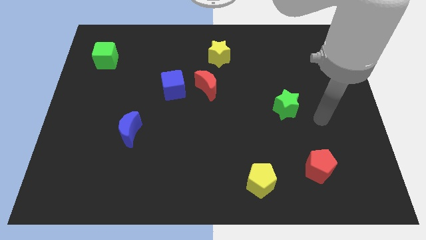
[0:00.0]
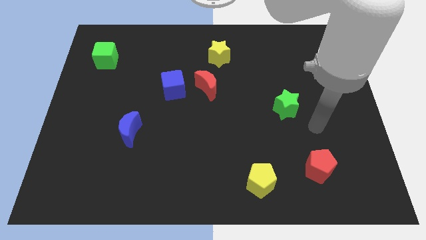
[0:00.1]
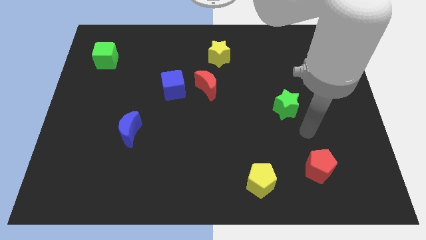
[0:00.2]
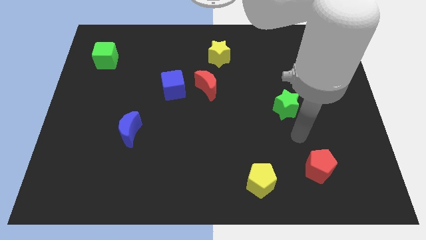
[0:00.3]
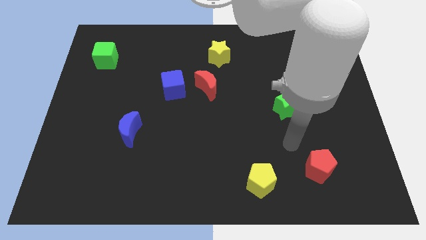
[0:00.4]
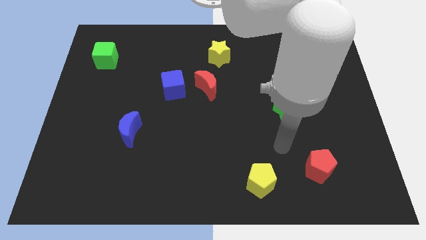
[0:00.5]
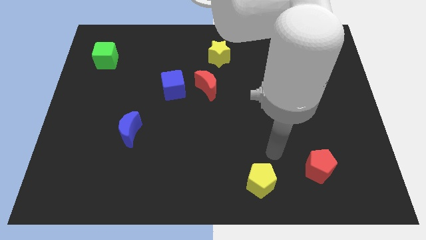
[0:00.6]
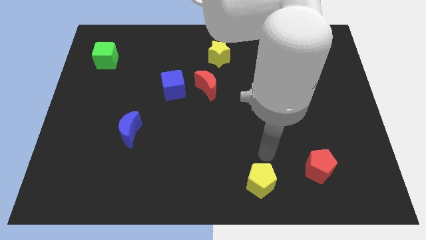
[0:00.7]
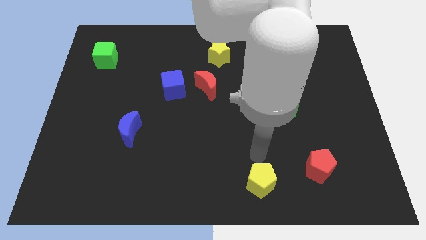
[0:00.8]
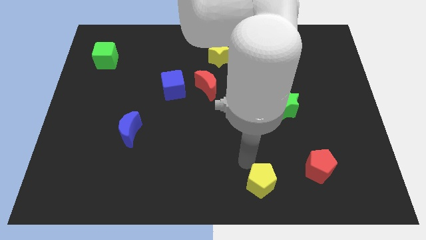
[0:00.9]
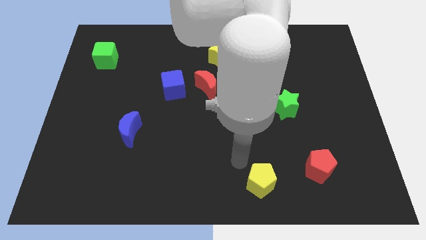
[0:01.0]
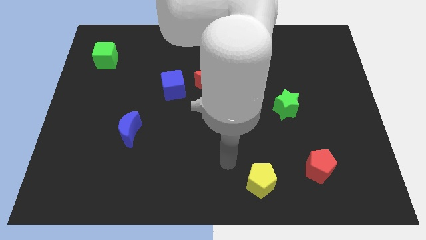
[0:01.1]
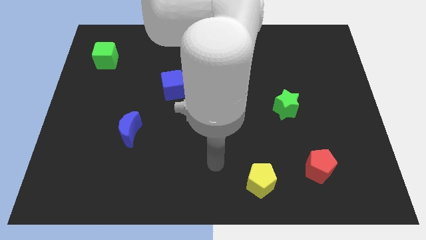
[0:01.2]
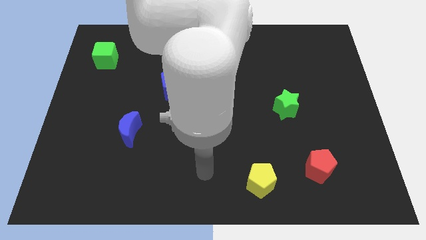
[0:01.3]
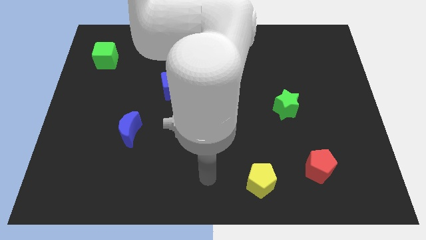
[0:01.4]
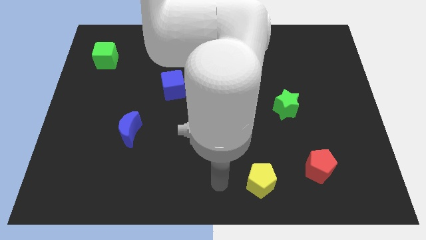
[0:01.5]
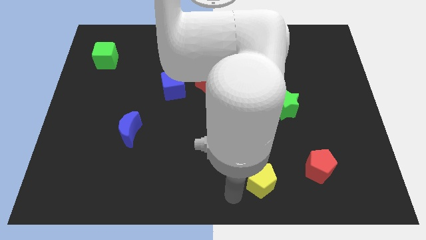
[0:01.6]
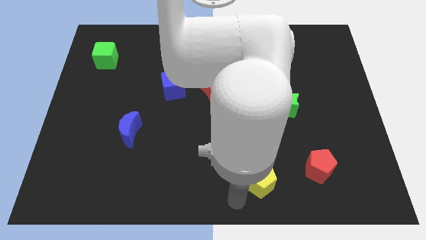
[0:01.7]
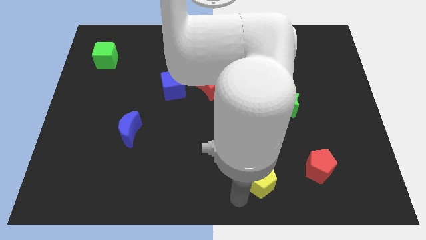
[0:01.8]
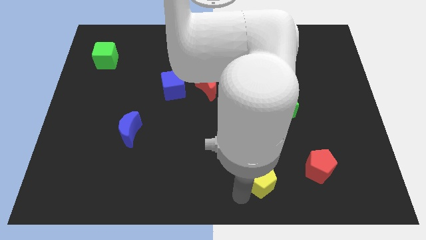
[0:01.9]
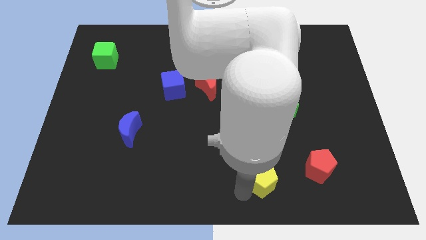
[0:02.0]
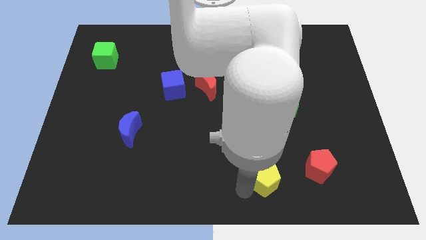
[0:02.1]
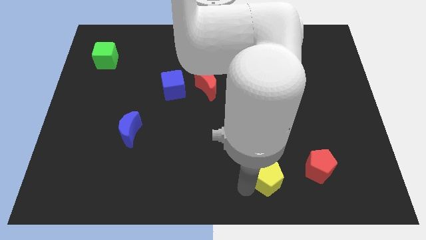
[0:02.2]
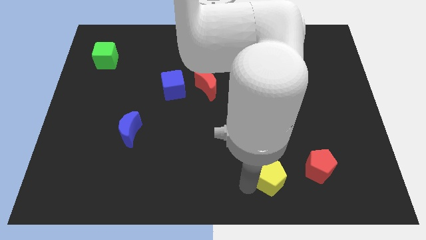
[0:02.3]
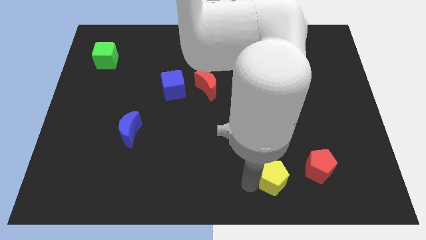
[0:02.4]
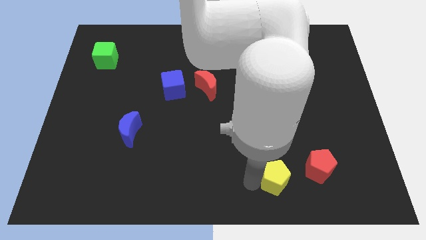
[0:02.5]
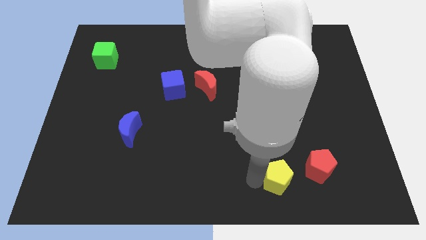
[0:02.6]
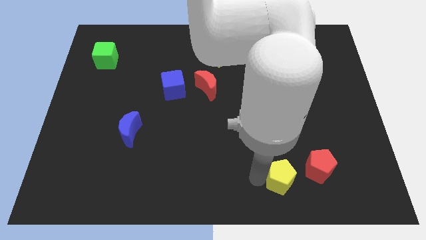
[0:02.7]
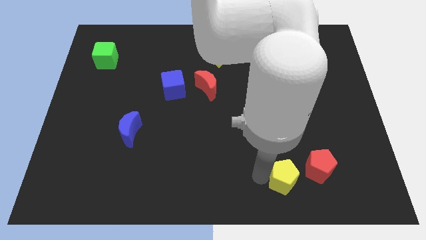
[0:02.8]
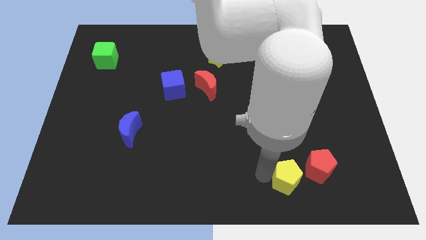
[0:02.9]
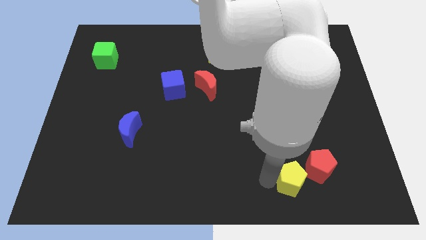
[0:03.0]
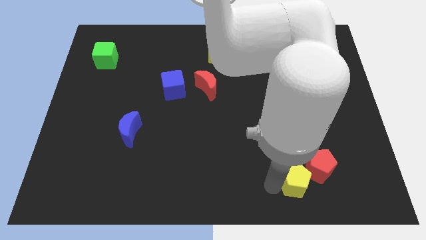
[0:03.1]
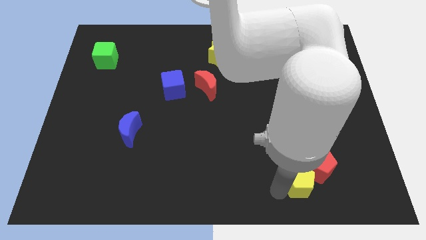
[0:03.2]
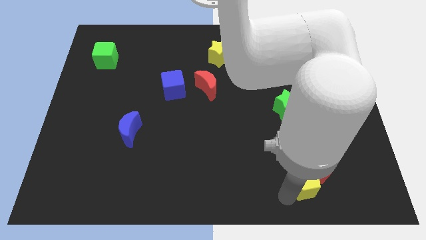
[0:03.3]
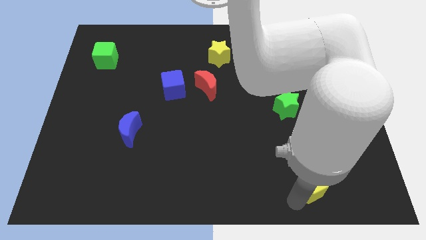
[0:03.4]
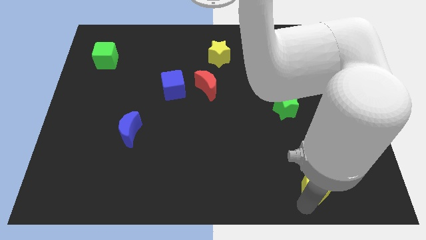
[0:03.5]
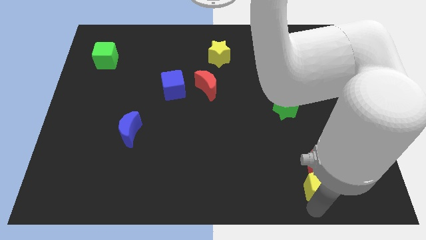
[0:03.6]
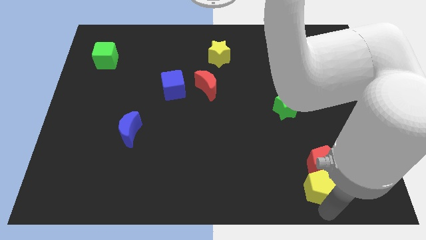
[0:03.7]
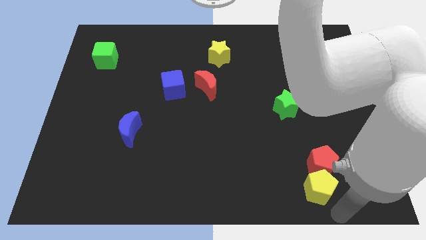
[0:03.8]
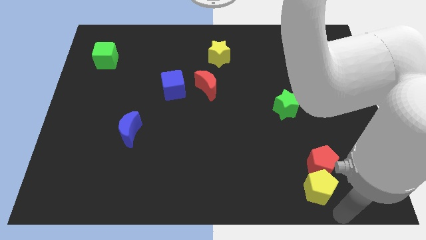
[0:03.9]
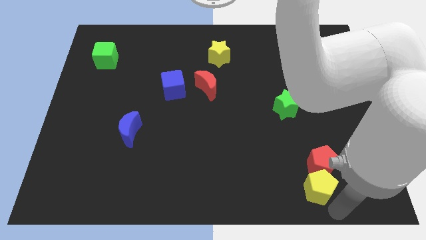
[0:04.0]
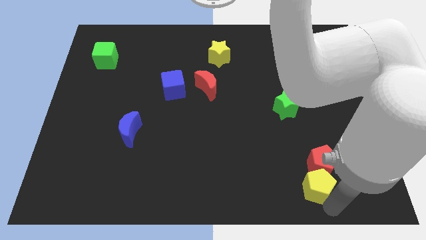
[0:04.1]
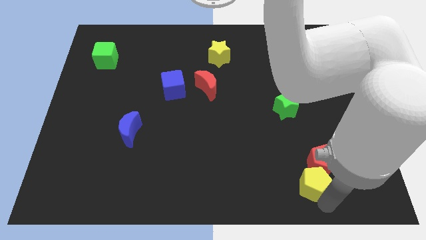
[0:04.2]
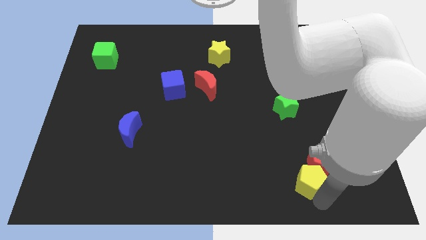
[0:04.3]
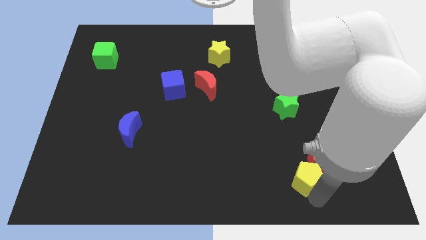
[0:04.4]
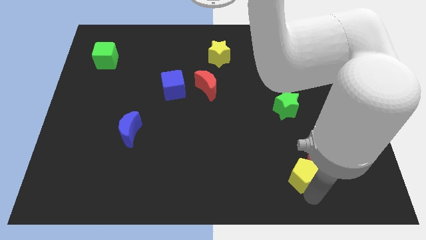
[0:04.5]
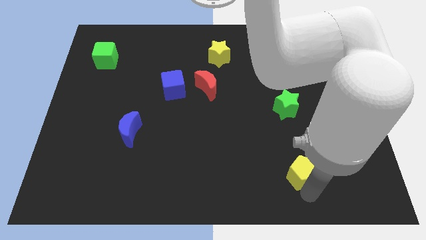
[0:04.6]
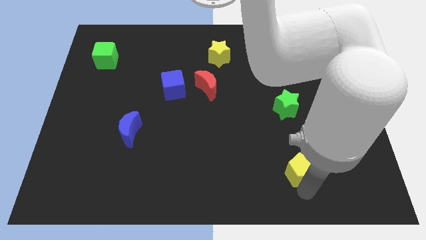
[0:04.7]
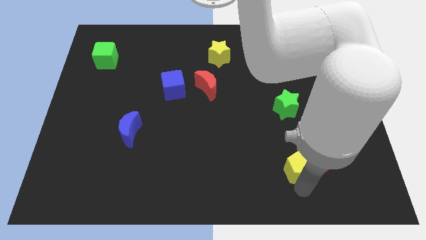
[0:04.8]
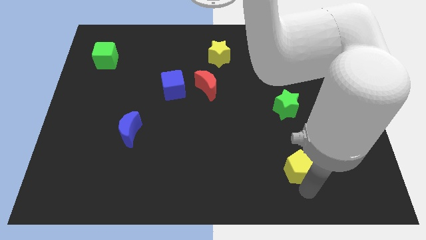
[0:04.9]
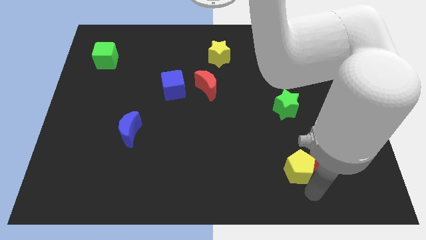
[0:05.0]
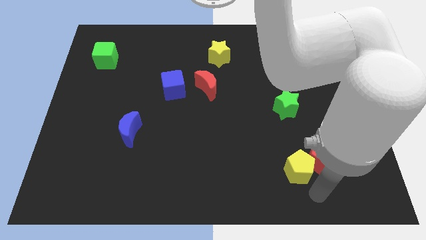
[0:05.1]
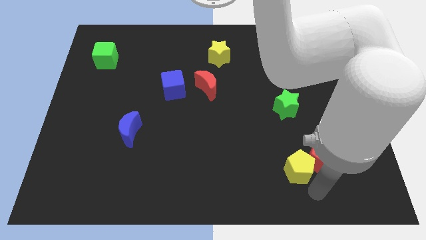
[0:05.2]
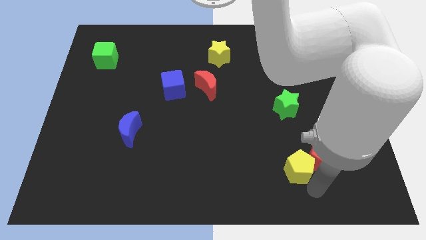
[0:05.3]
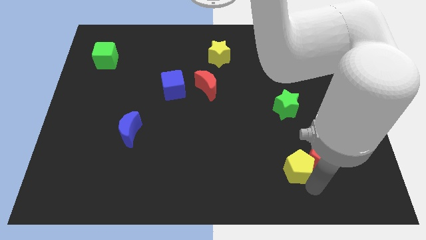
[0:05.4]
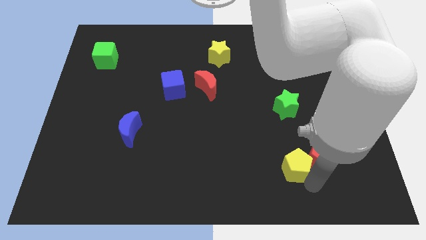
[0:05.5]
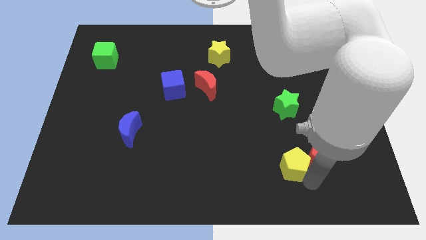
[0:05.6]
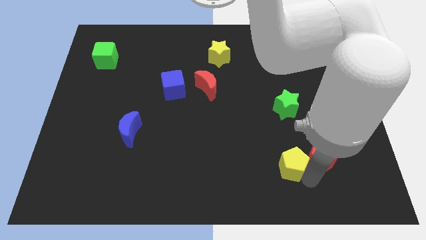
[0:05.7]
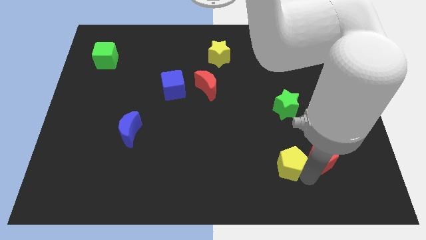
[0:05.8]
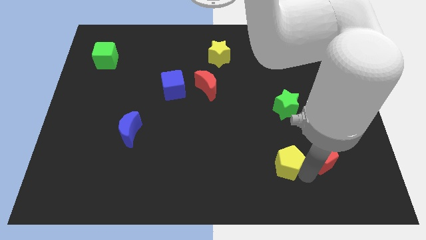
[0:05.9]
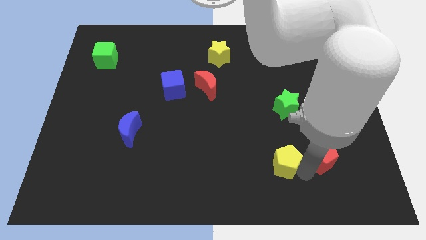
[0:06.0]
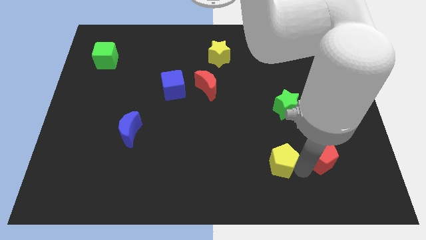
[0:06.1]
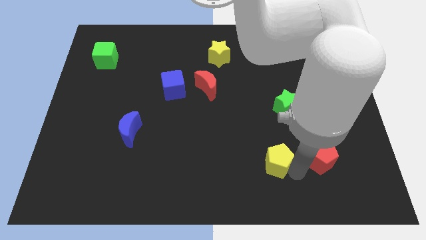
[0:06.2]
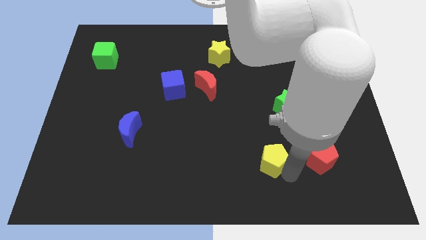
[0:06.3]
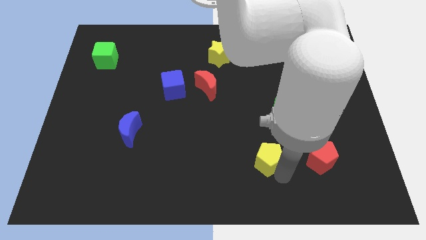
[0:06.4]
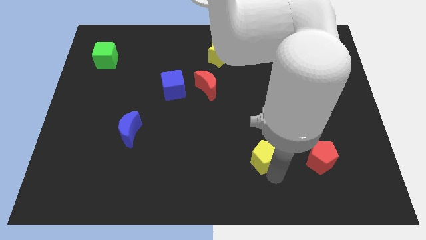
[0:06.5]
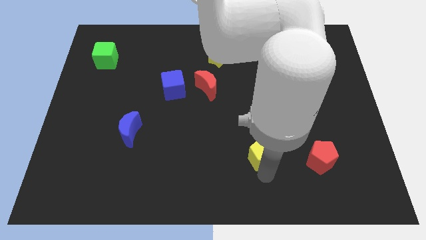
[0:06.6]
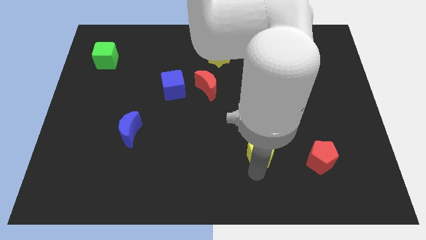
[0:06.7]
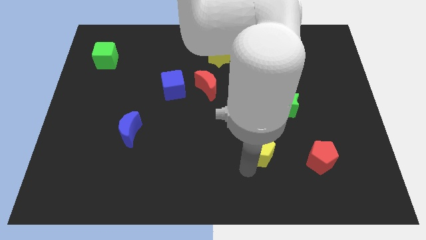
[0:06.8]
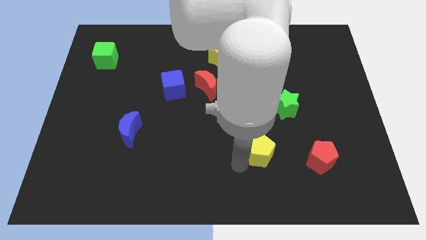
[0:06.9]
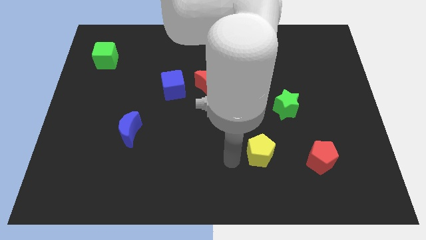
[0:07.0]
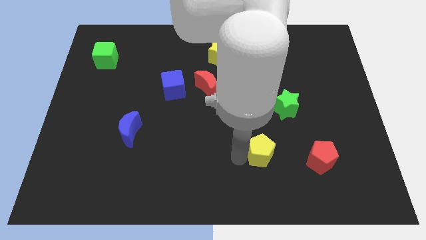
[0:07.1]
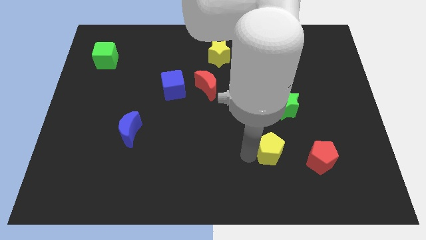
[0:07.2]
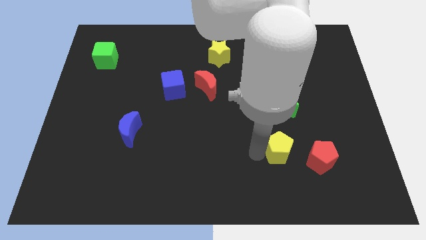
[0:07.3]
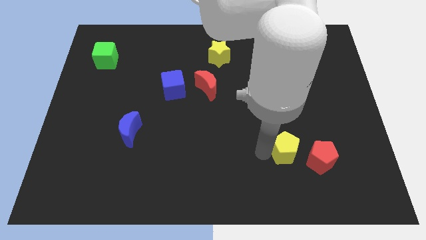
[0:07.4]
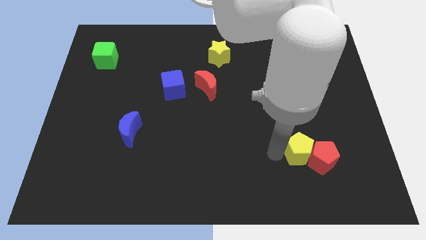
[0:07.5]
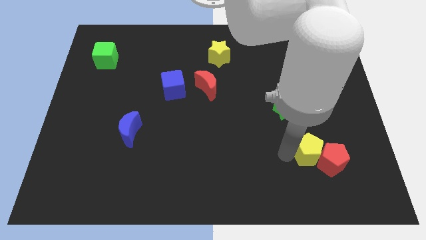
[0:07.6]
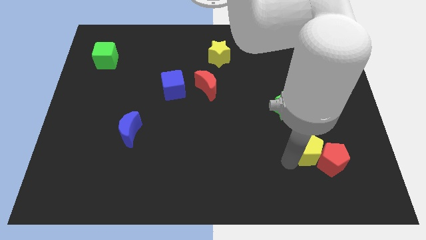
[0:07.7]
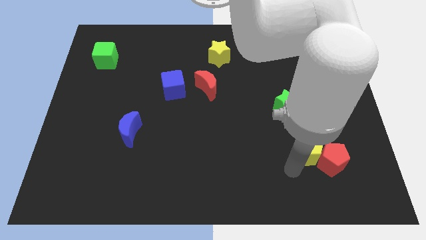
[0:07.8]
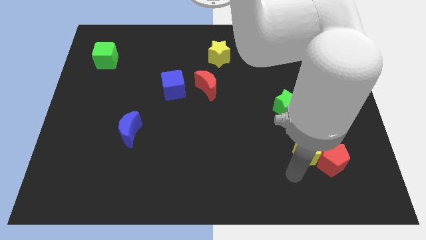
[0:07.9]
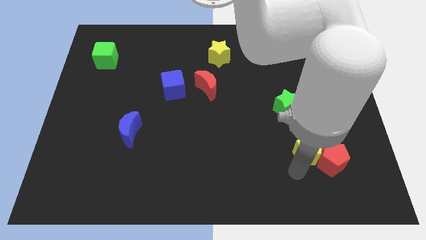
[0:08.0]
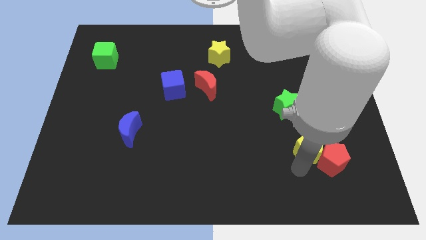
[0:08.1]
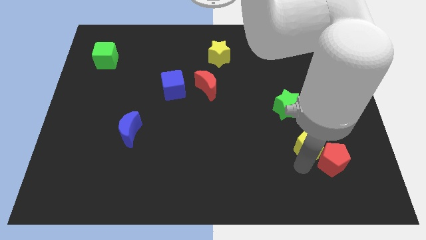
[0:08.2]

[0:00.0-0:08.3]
push the yellow pentagon to the top of the red pentagon
